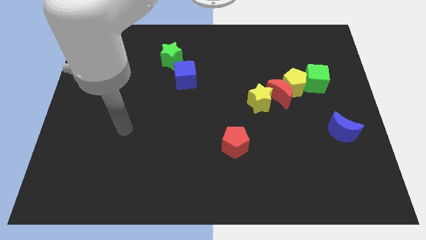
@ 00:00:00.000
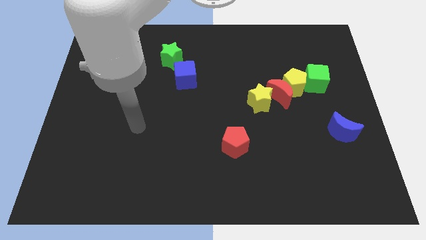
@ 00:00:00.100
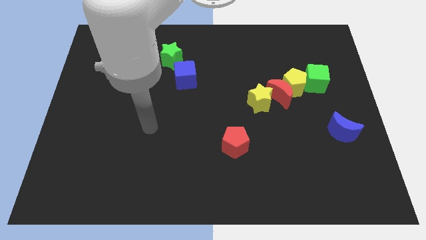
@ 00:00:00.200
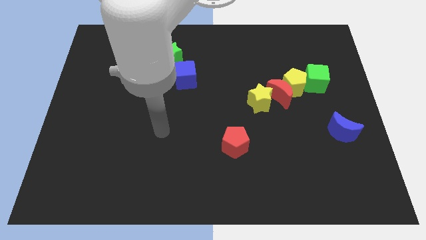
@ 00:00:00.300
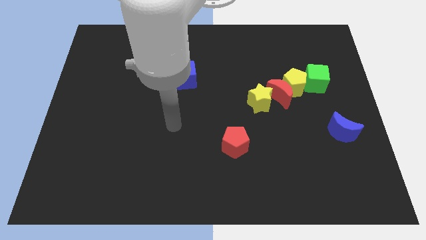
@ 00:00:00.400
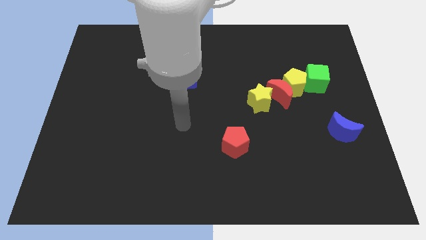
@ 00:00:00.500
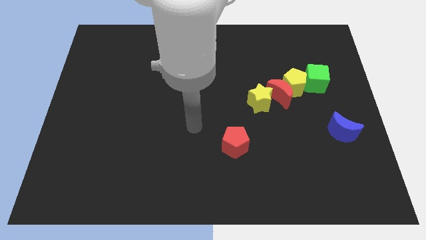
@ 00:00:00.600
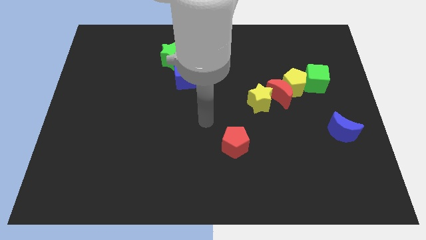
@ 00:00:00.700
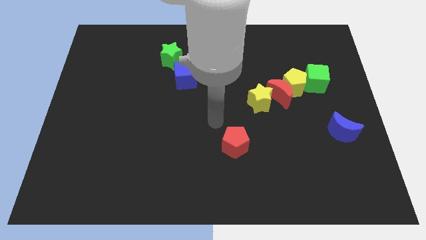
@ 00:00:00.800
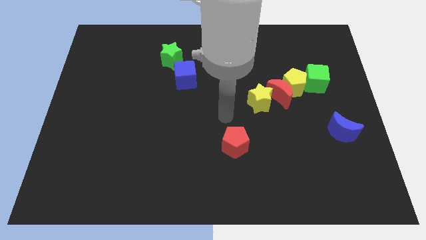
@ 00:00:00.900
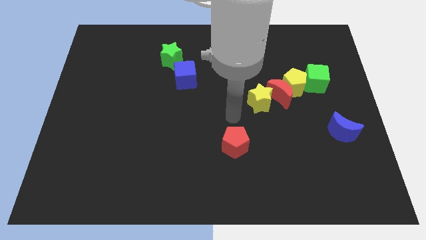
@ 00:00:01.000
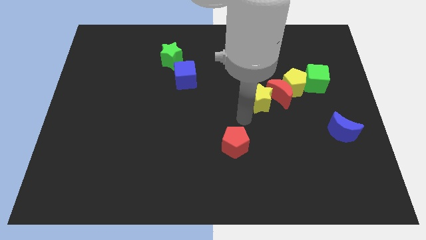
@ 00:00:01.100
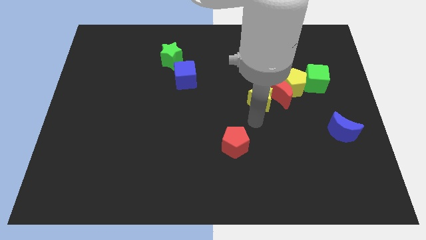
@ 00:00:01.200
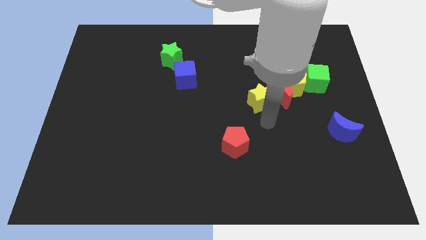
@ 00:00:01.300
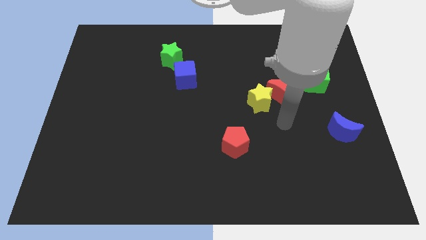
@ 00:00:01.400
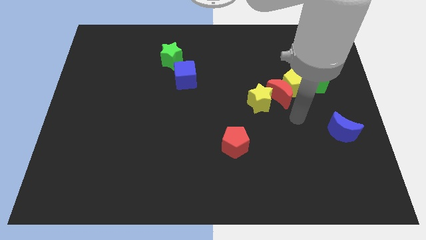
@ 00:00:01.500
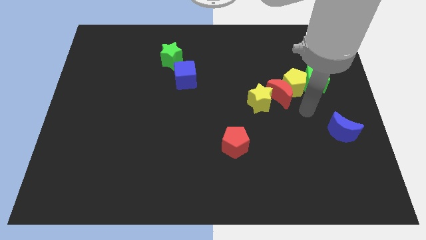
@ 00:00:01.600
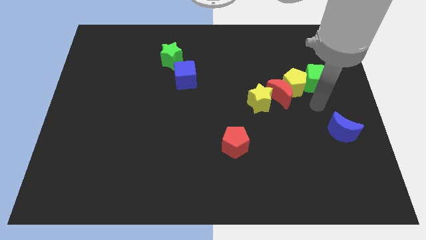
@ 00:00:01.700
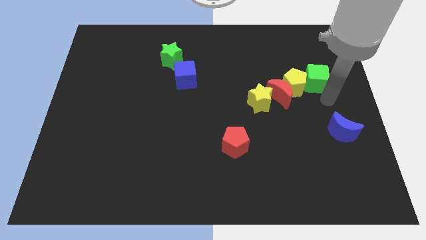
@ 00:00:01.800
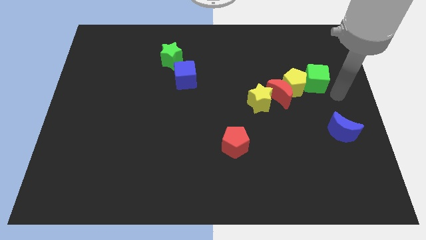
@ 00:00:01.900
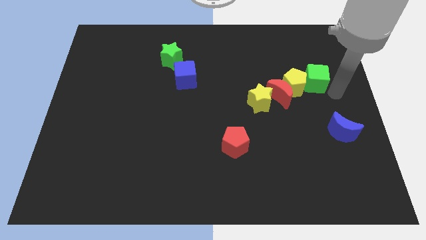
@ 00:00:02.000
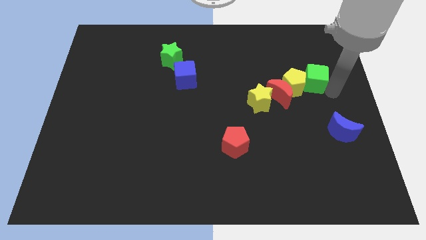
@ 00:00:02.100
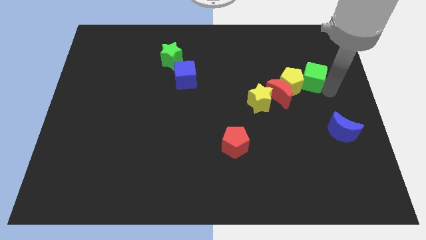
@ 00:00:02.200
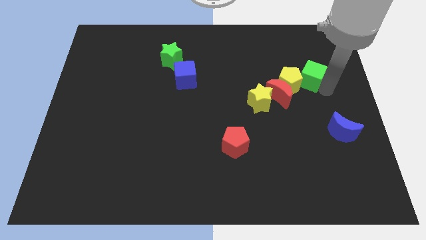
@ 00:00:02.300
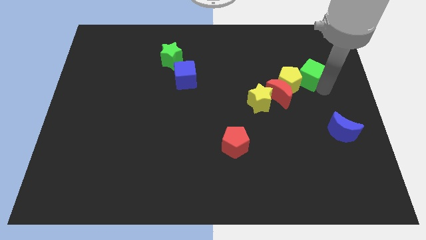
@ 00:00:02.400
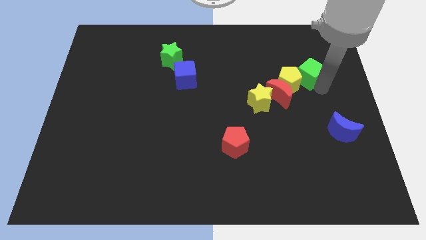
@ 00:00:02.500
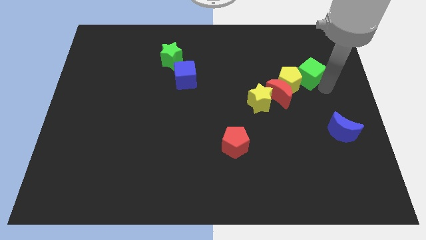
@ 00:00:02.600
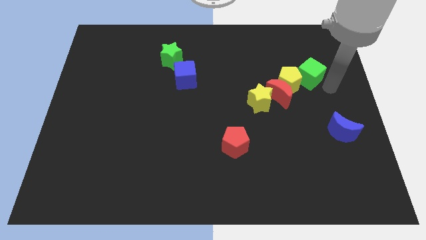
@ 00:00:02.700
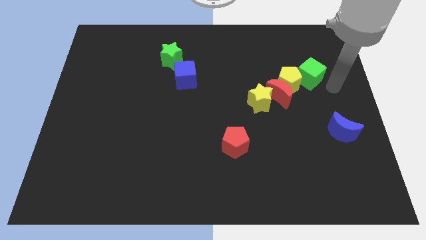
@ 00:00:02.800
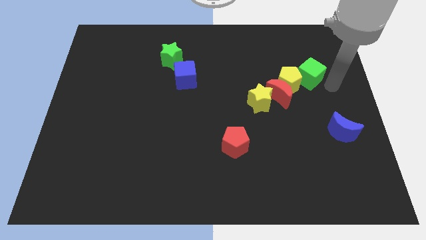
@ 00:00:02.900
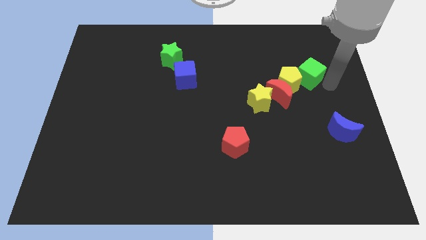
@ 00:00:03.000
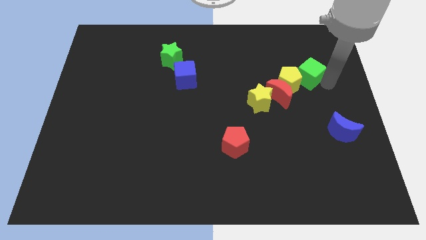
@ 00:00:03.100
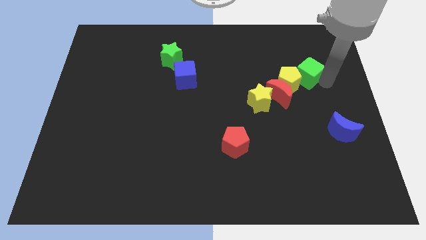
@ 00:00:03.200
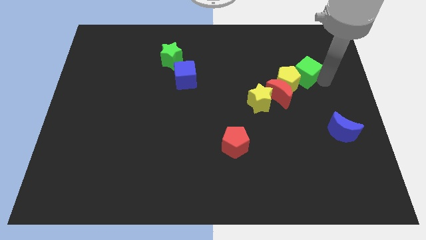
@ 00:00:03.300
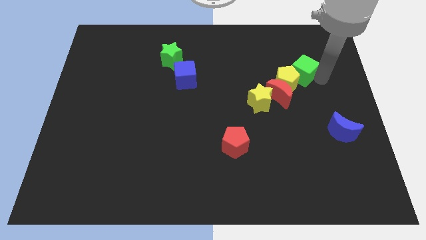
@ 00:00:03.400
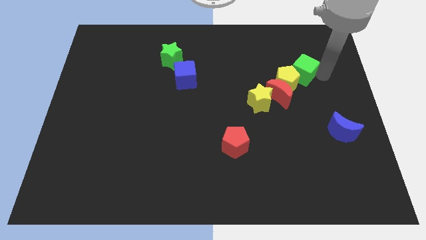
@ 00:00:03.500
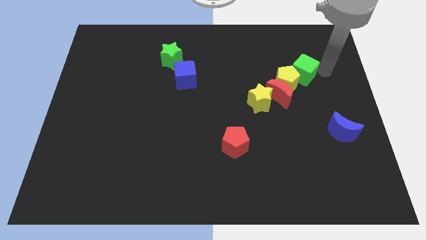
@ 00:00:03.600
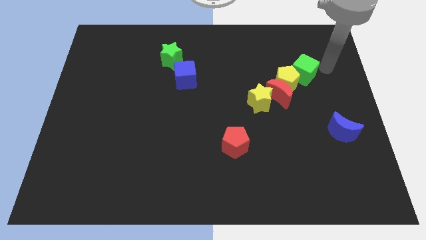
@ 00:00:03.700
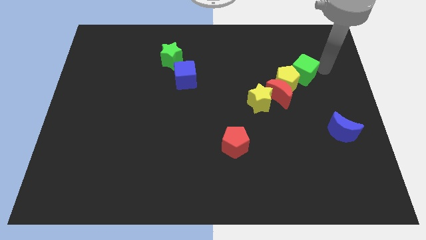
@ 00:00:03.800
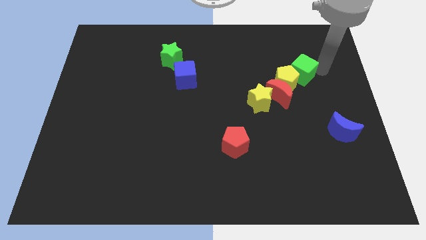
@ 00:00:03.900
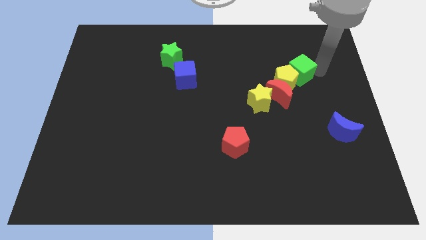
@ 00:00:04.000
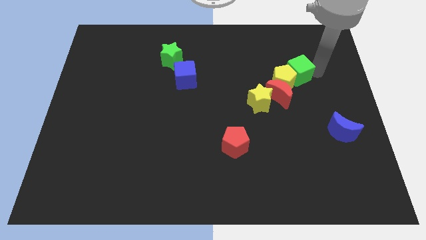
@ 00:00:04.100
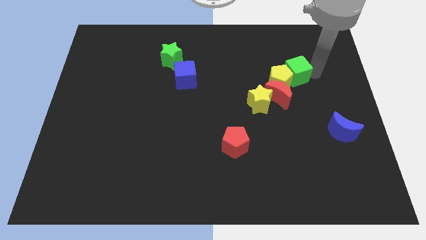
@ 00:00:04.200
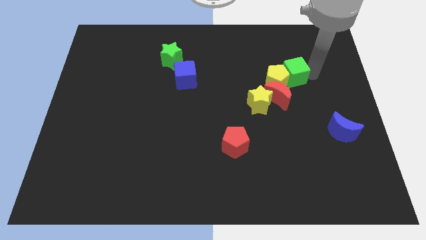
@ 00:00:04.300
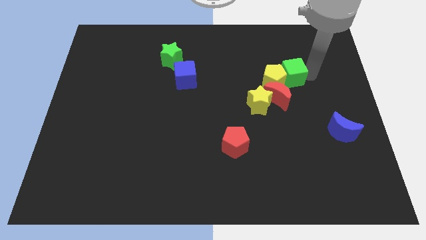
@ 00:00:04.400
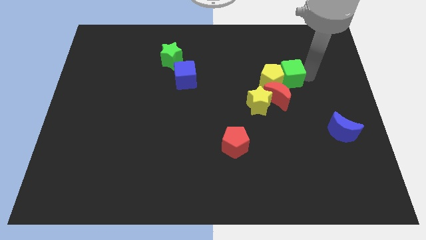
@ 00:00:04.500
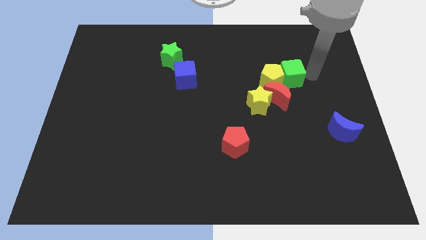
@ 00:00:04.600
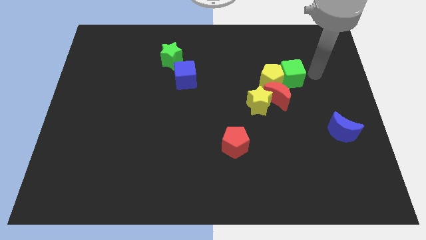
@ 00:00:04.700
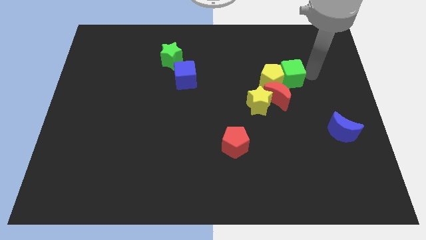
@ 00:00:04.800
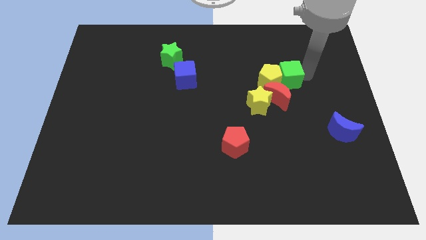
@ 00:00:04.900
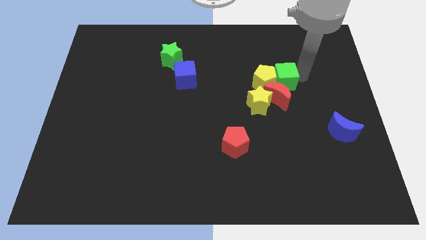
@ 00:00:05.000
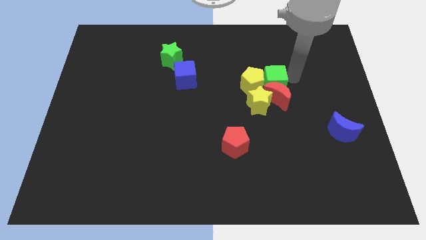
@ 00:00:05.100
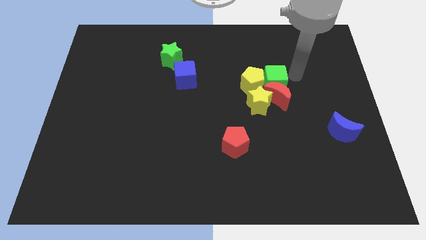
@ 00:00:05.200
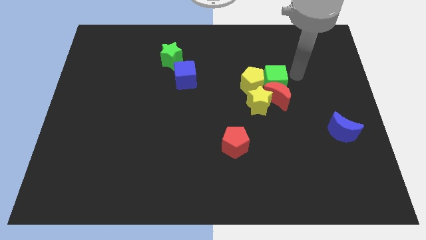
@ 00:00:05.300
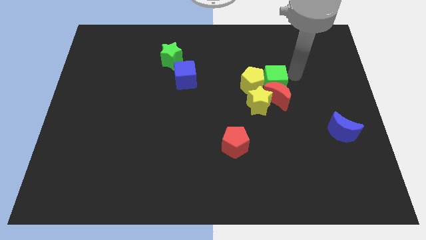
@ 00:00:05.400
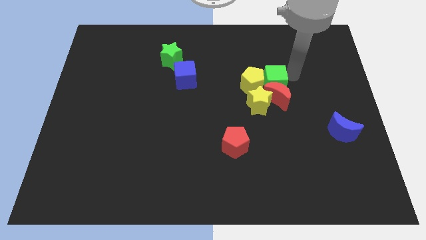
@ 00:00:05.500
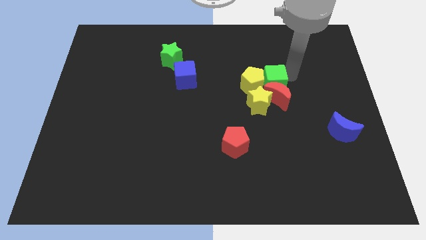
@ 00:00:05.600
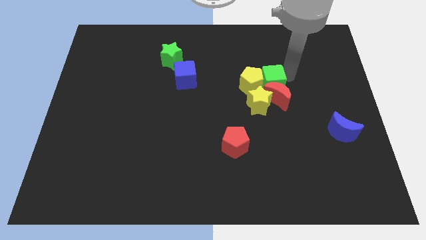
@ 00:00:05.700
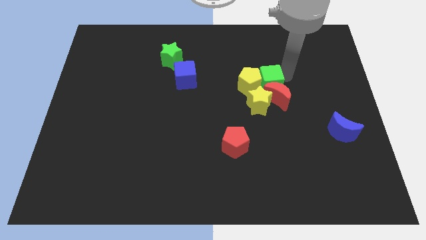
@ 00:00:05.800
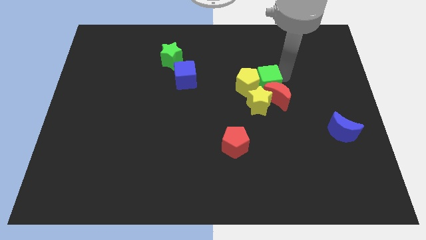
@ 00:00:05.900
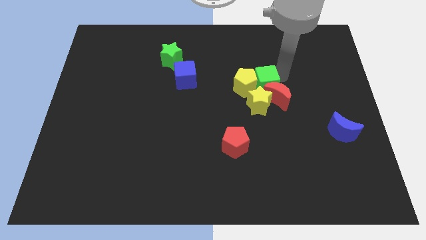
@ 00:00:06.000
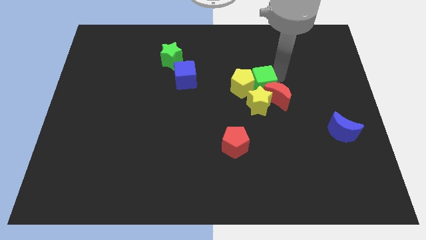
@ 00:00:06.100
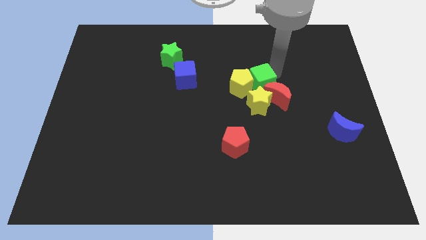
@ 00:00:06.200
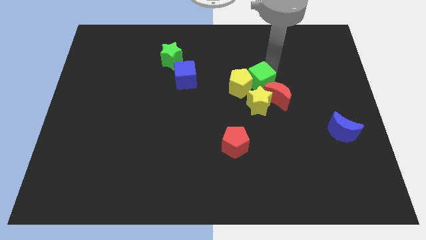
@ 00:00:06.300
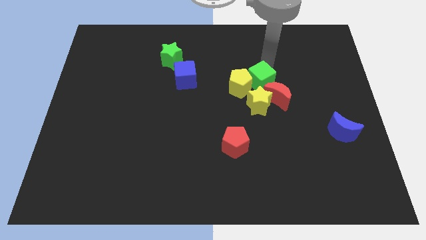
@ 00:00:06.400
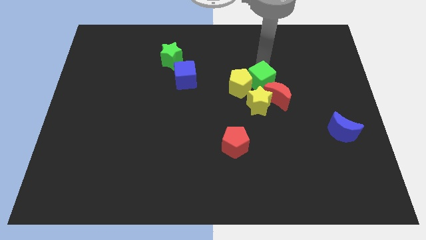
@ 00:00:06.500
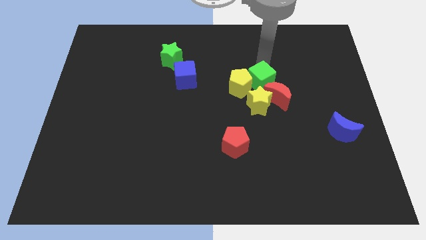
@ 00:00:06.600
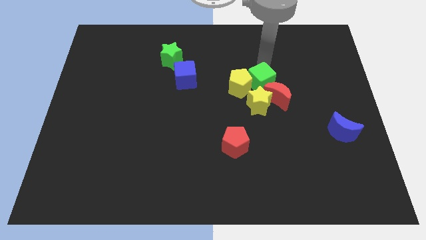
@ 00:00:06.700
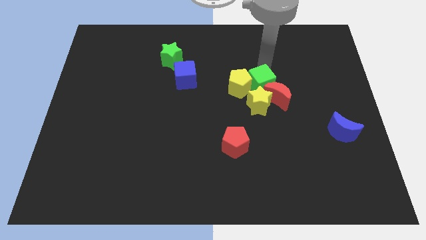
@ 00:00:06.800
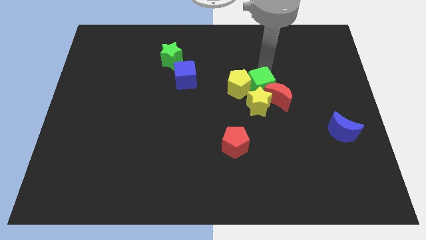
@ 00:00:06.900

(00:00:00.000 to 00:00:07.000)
push the green cube to the yellow star
